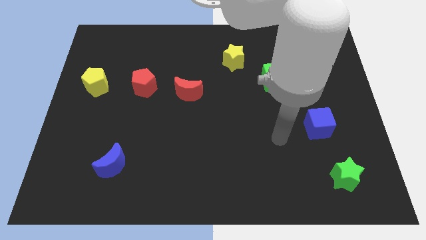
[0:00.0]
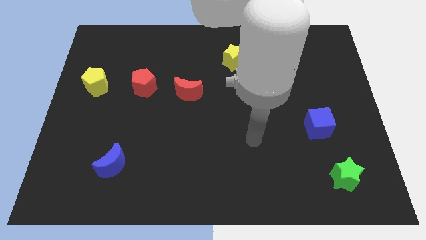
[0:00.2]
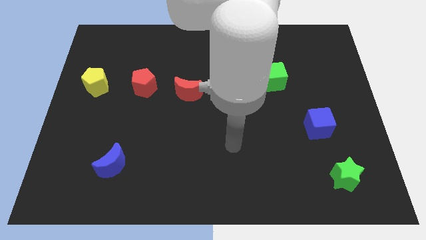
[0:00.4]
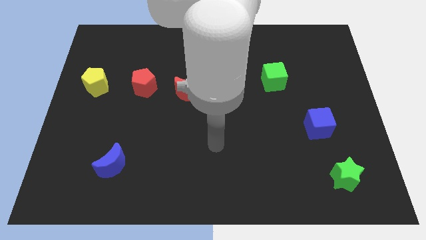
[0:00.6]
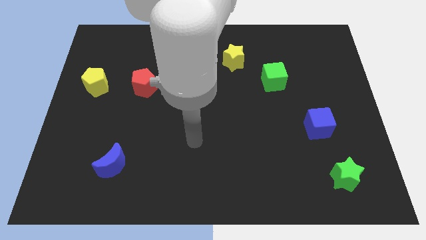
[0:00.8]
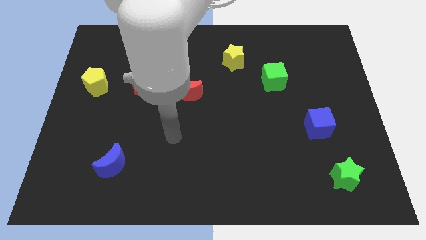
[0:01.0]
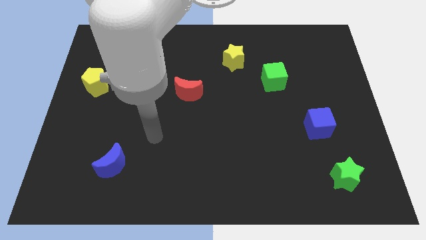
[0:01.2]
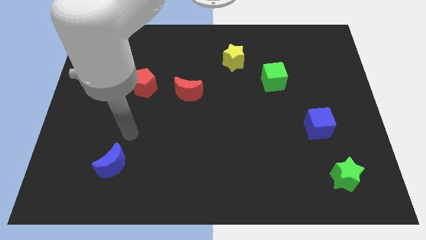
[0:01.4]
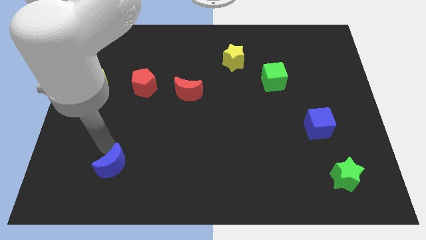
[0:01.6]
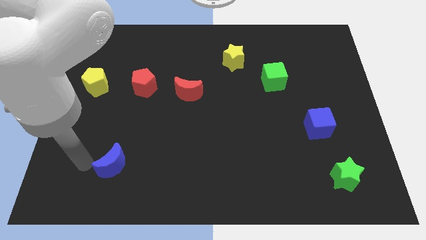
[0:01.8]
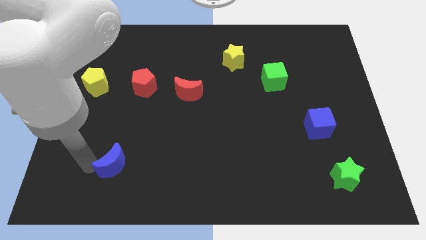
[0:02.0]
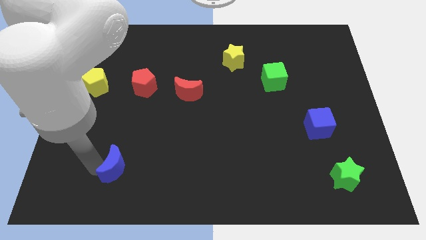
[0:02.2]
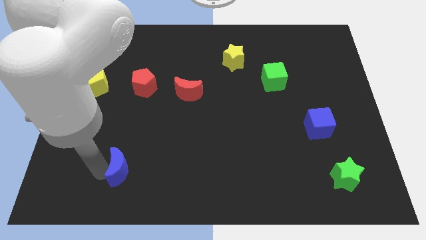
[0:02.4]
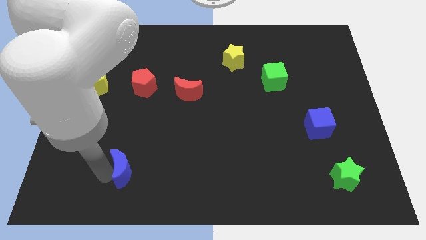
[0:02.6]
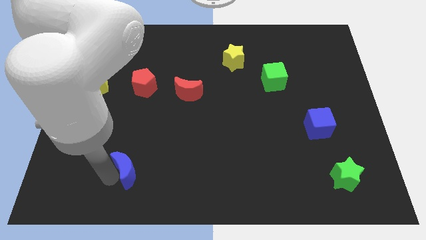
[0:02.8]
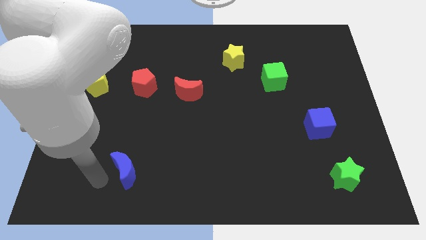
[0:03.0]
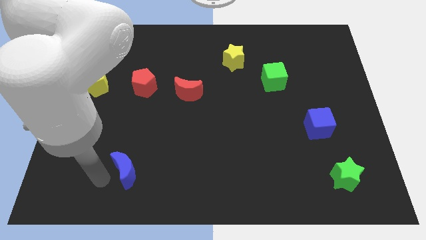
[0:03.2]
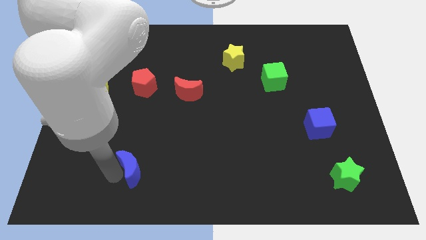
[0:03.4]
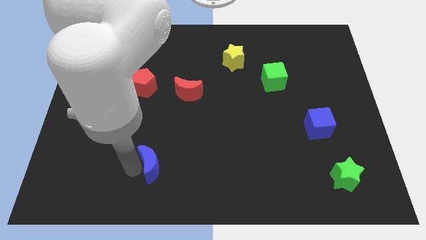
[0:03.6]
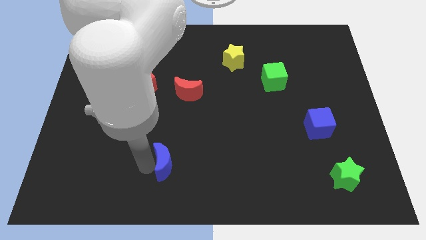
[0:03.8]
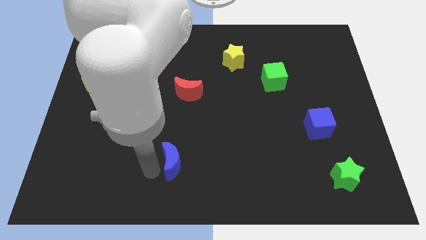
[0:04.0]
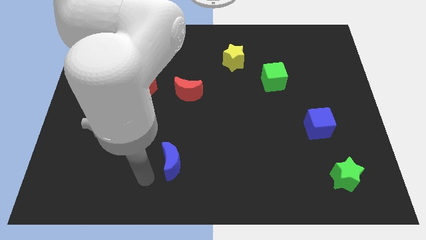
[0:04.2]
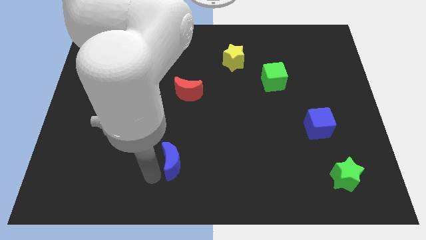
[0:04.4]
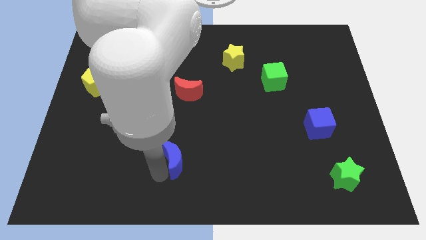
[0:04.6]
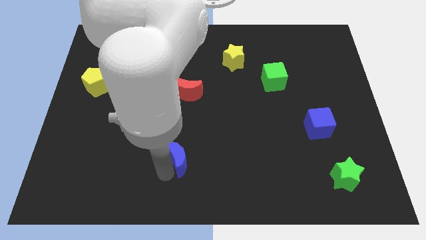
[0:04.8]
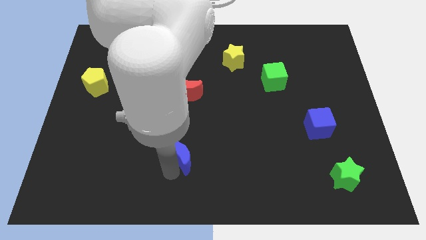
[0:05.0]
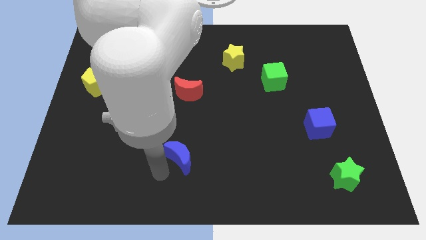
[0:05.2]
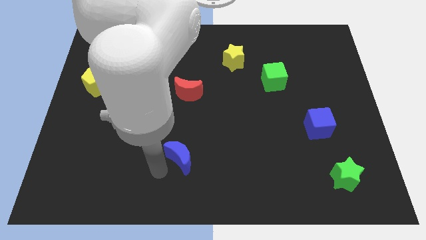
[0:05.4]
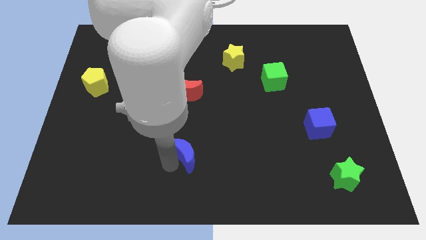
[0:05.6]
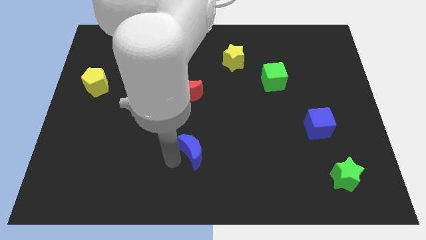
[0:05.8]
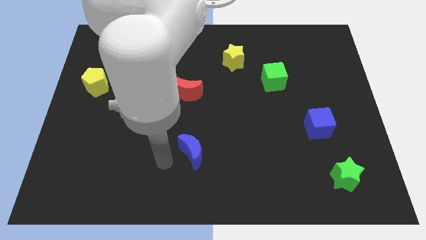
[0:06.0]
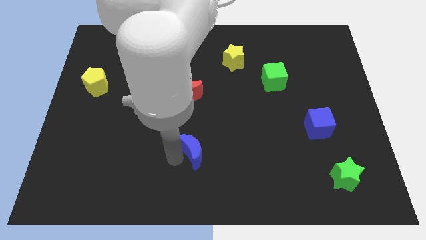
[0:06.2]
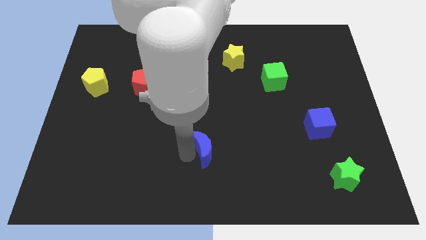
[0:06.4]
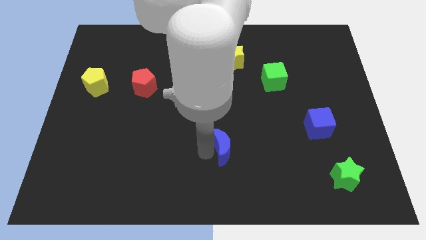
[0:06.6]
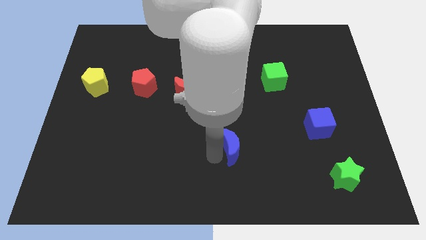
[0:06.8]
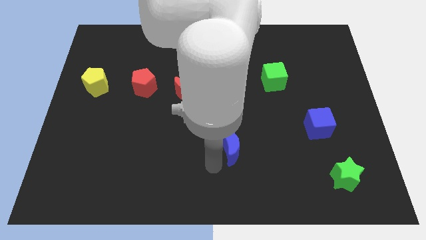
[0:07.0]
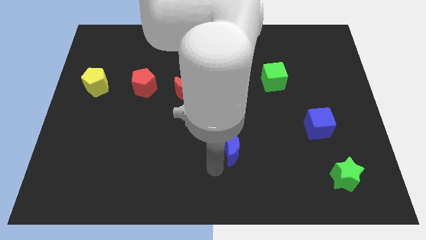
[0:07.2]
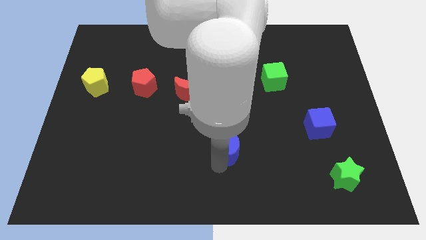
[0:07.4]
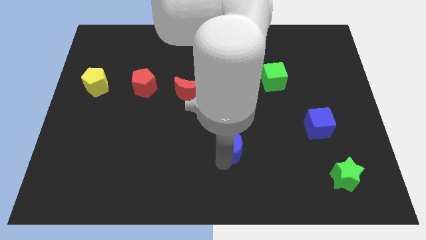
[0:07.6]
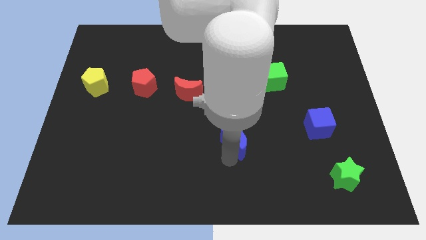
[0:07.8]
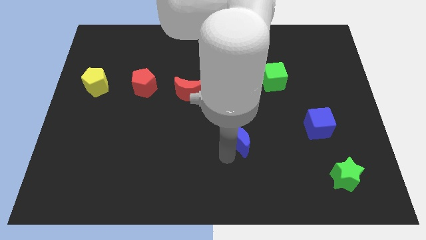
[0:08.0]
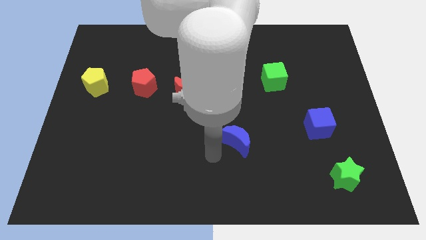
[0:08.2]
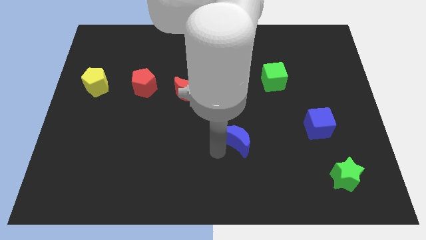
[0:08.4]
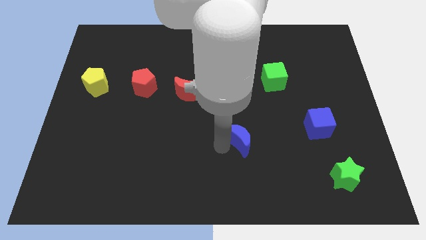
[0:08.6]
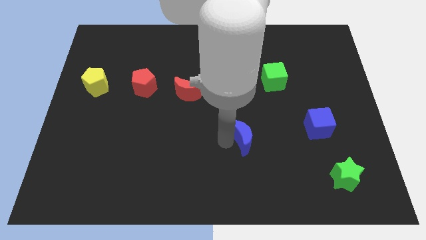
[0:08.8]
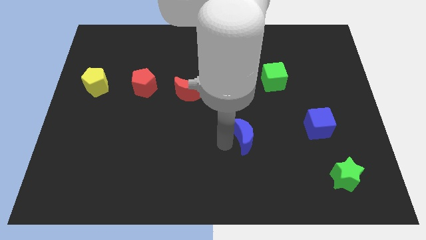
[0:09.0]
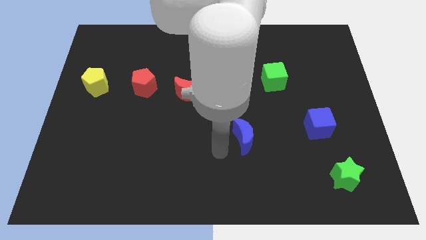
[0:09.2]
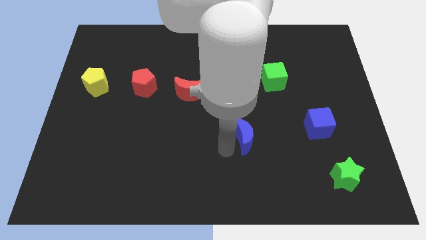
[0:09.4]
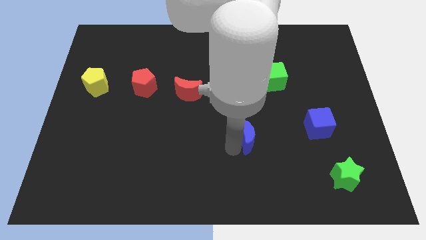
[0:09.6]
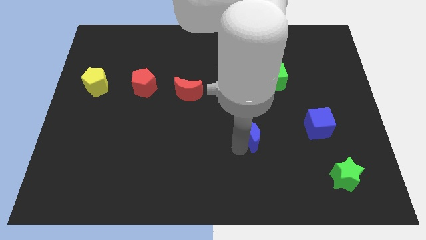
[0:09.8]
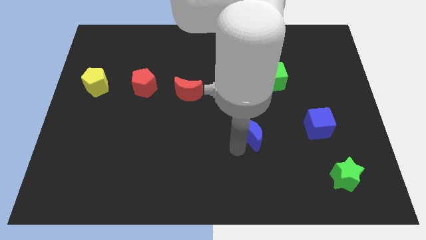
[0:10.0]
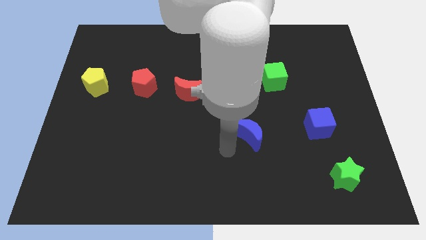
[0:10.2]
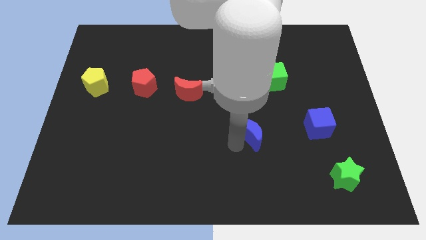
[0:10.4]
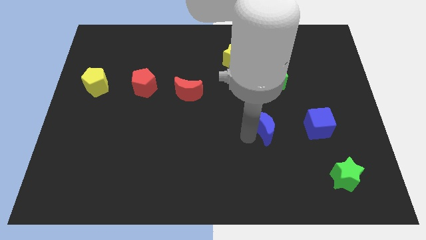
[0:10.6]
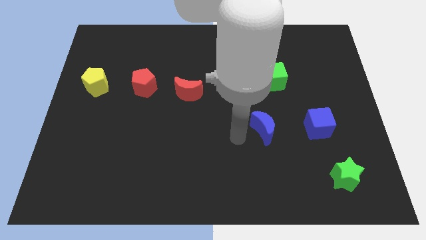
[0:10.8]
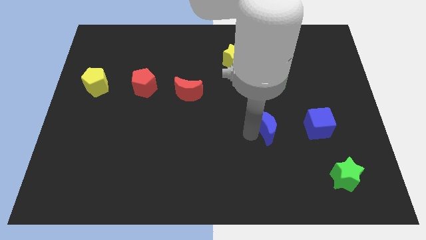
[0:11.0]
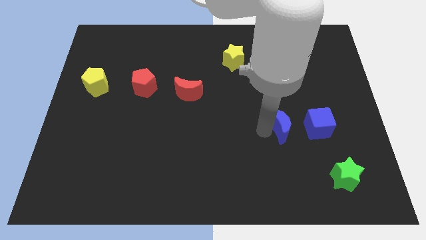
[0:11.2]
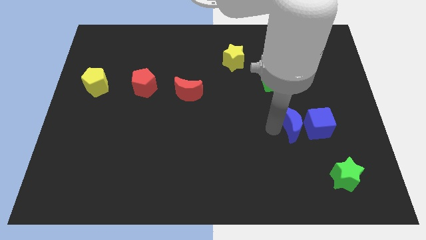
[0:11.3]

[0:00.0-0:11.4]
put the blue moon to the blue cube

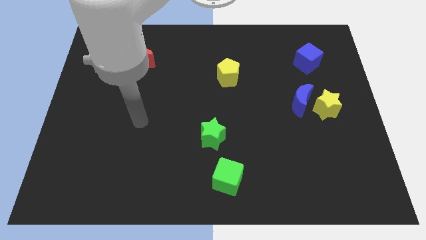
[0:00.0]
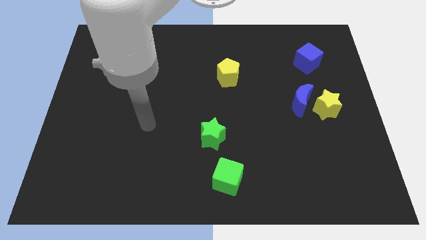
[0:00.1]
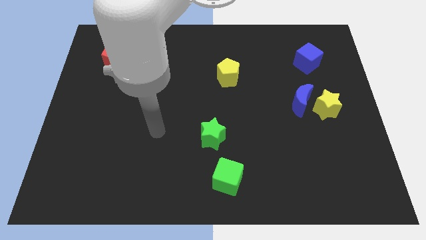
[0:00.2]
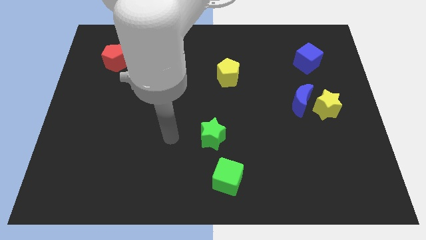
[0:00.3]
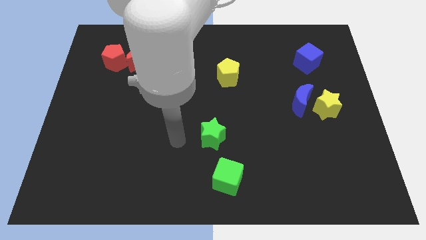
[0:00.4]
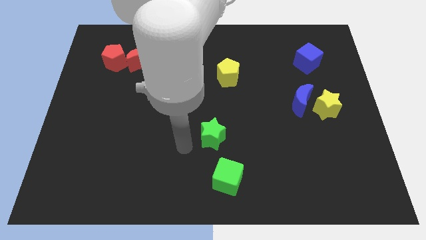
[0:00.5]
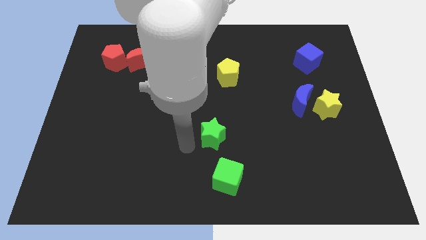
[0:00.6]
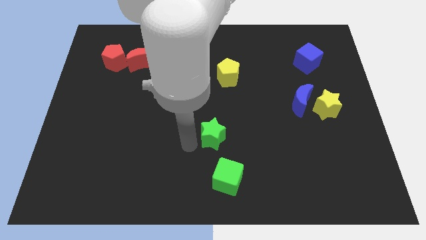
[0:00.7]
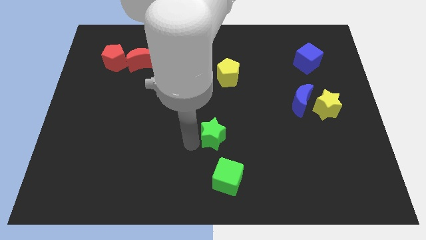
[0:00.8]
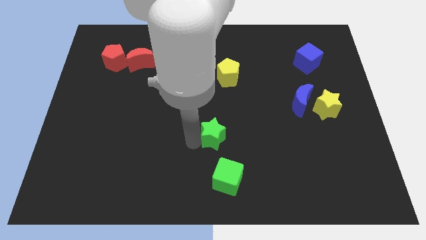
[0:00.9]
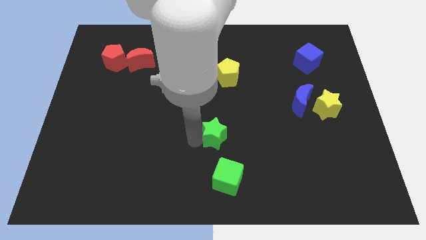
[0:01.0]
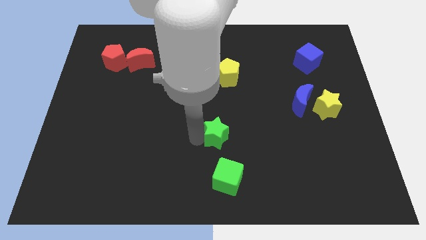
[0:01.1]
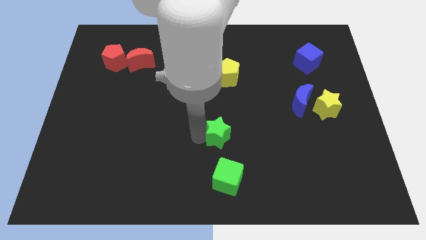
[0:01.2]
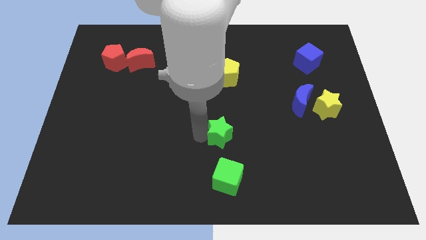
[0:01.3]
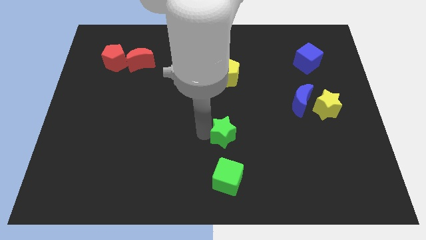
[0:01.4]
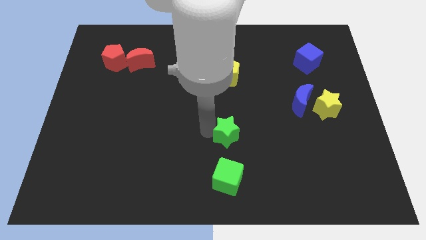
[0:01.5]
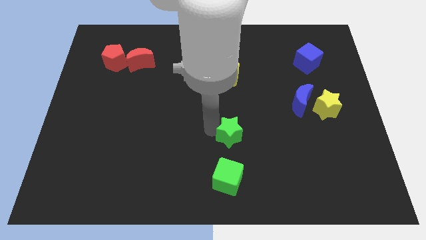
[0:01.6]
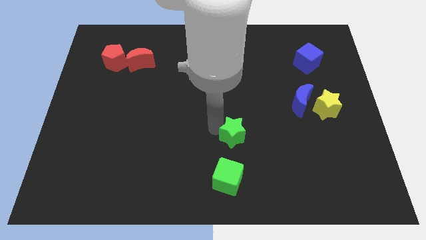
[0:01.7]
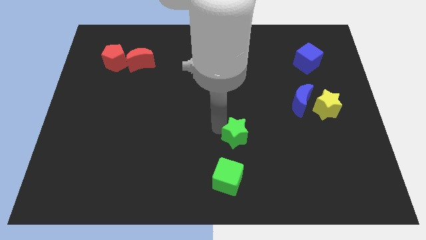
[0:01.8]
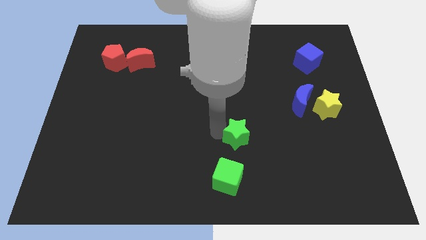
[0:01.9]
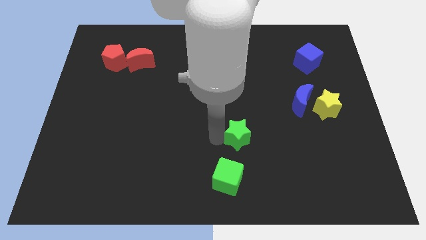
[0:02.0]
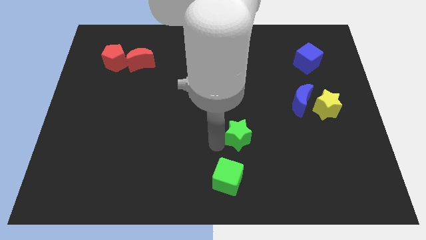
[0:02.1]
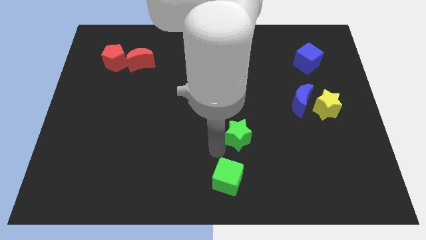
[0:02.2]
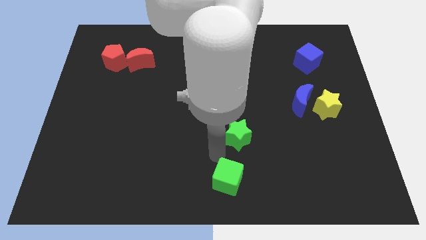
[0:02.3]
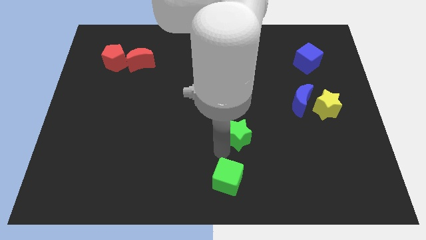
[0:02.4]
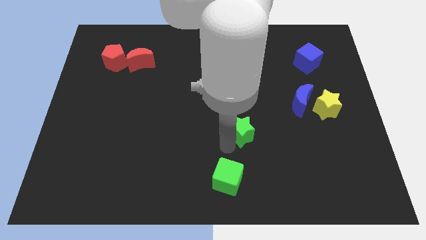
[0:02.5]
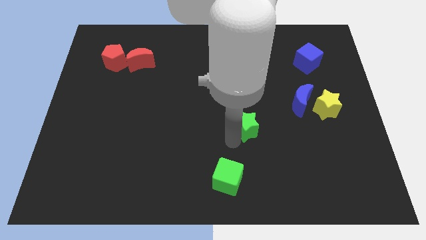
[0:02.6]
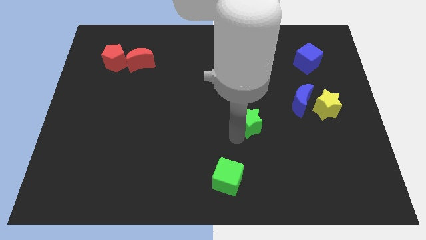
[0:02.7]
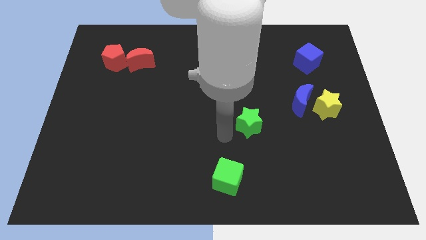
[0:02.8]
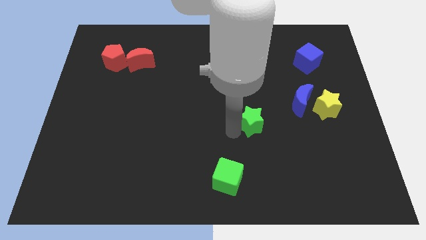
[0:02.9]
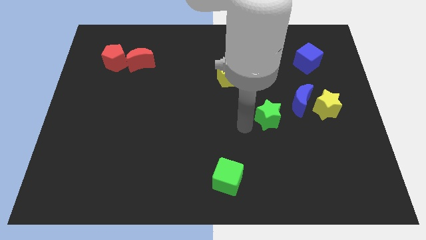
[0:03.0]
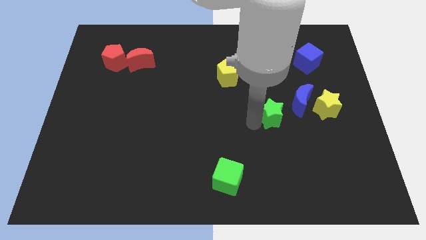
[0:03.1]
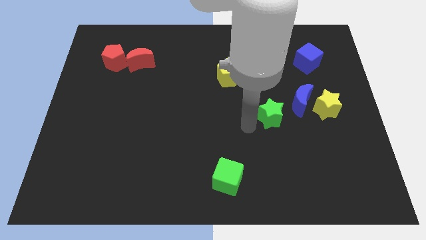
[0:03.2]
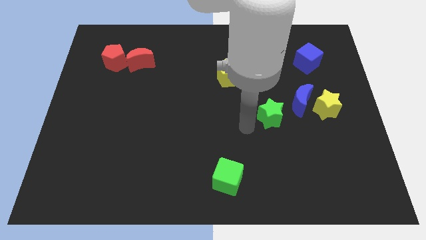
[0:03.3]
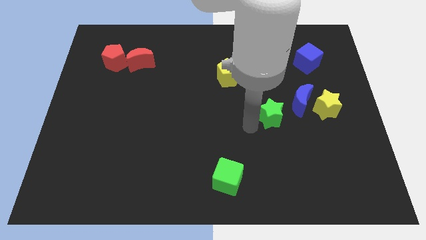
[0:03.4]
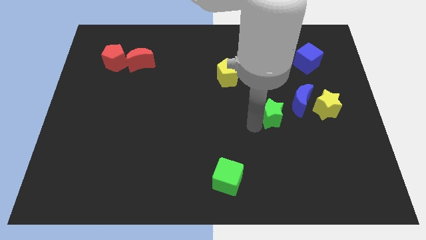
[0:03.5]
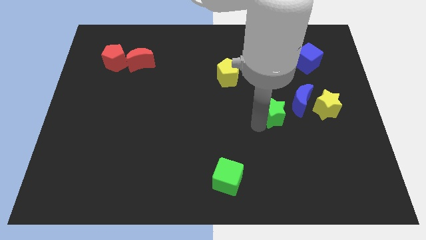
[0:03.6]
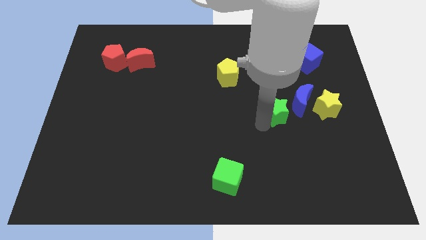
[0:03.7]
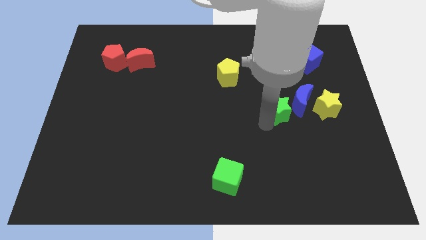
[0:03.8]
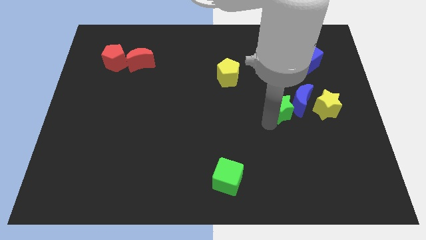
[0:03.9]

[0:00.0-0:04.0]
slide the green star next to the blue moon
